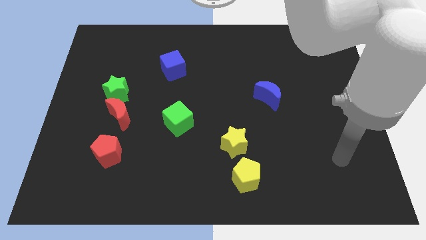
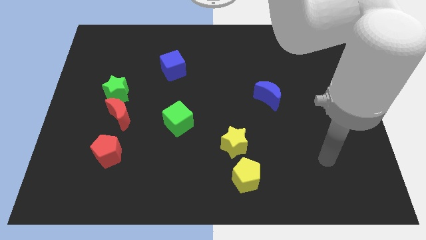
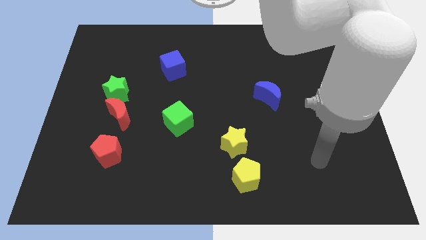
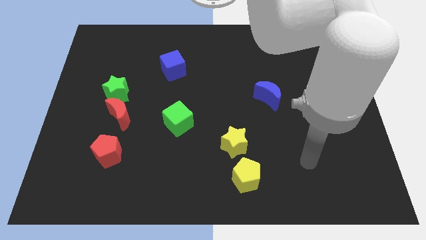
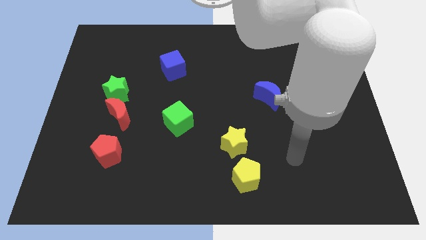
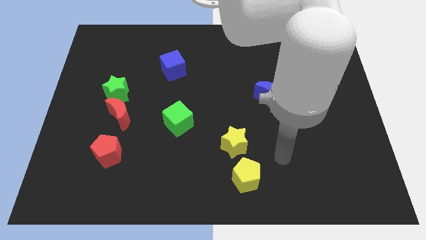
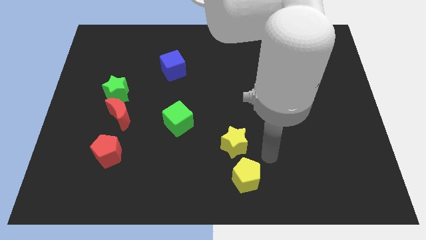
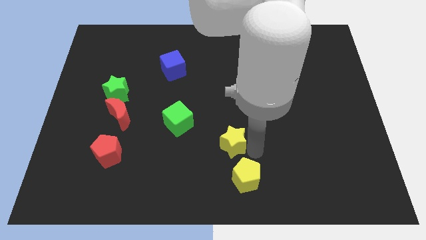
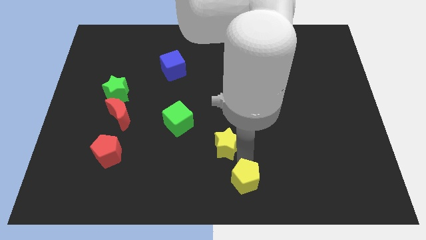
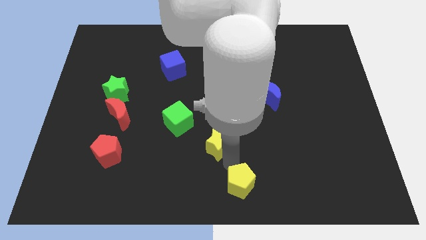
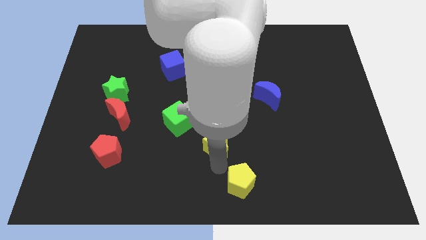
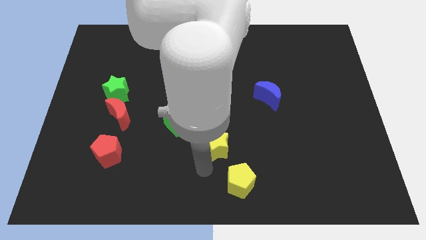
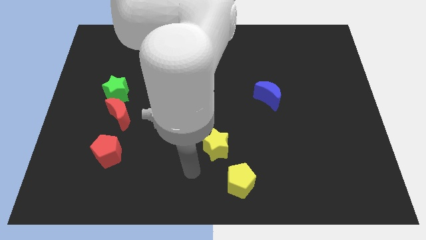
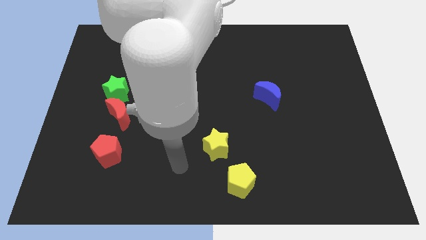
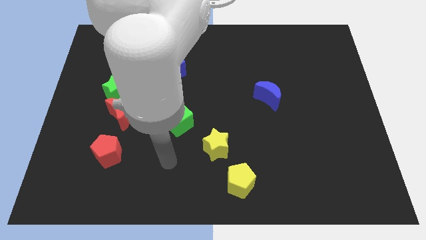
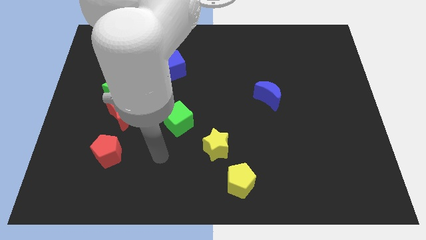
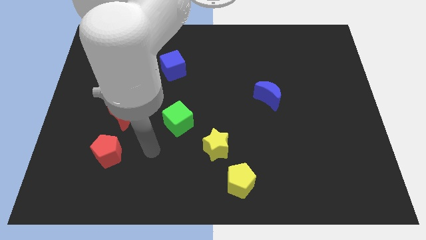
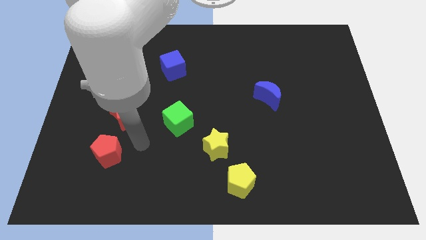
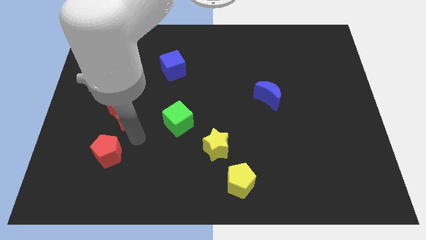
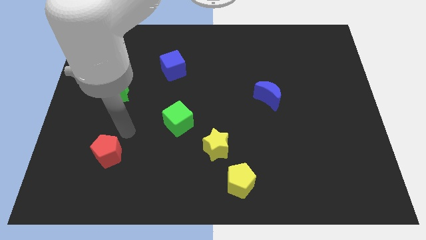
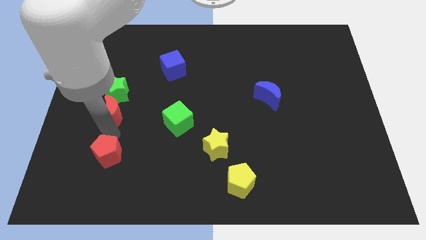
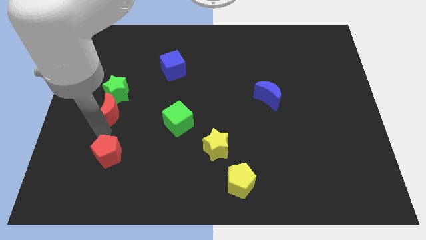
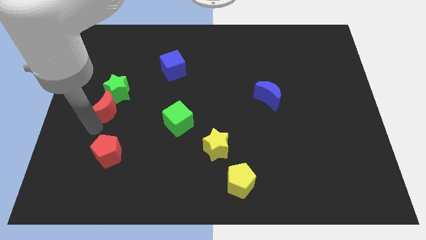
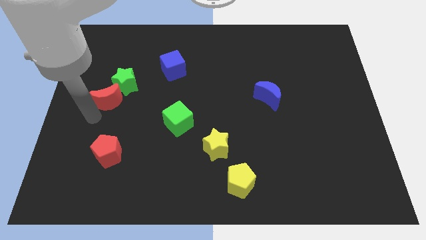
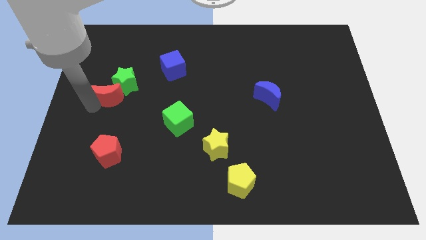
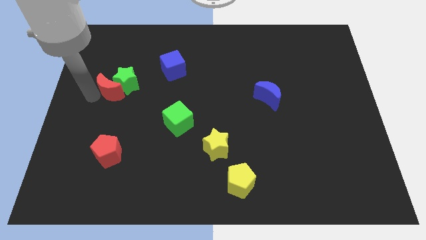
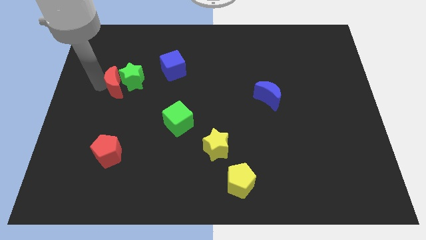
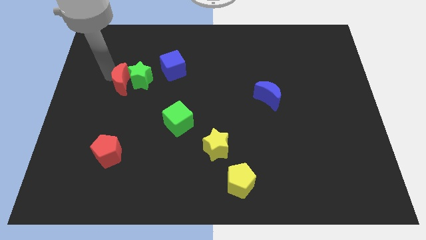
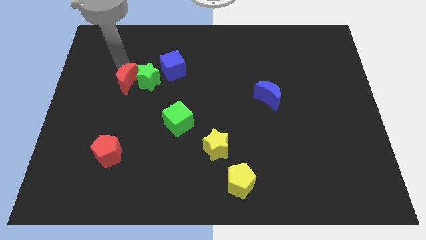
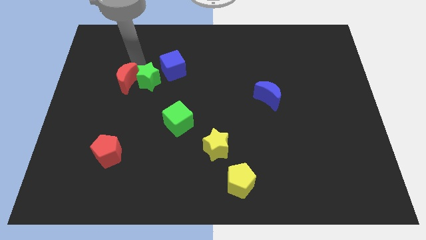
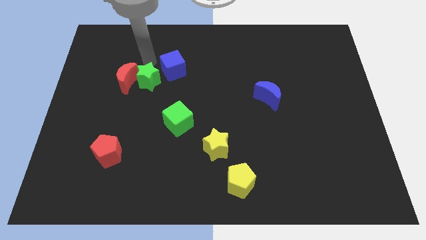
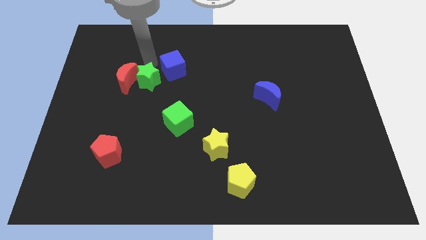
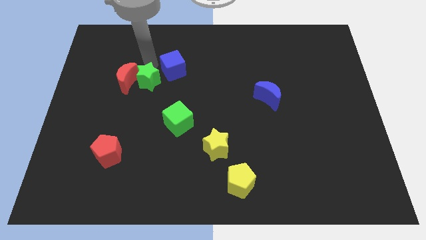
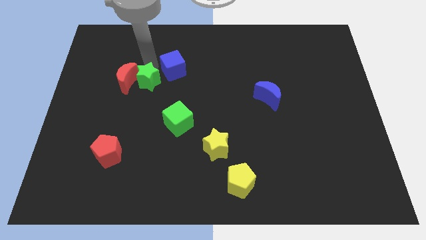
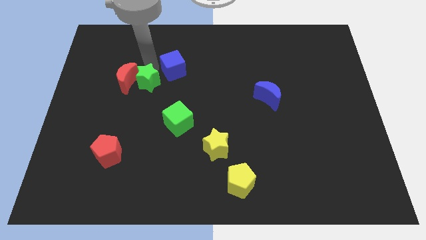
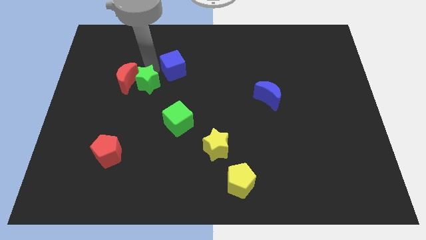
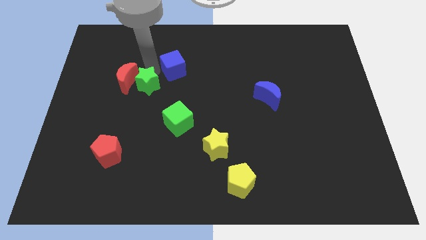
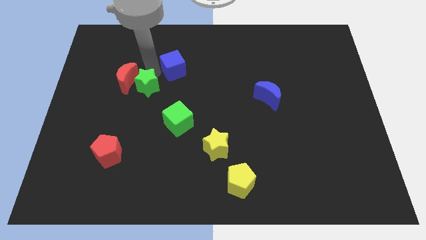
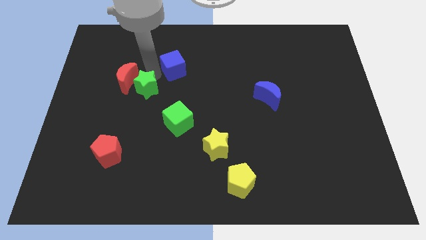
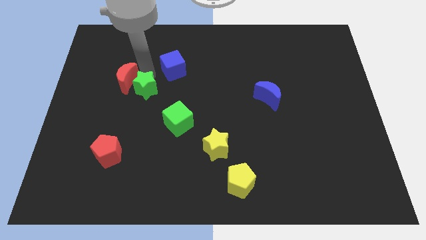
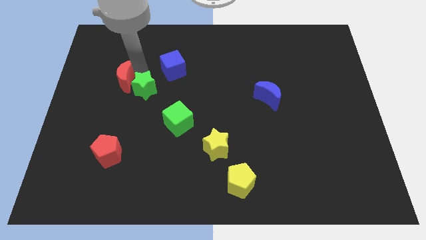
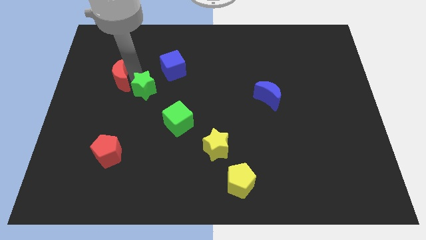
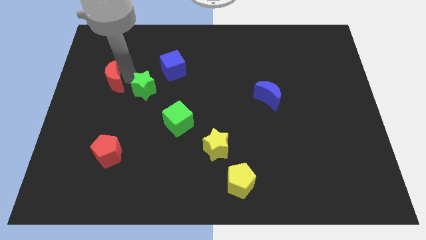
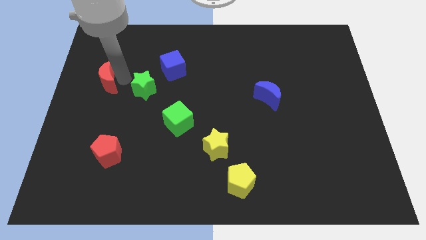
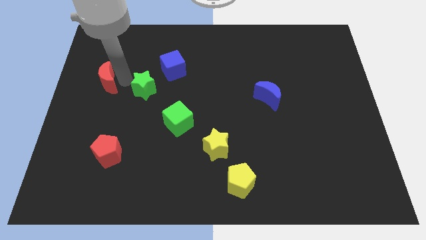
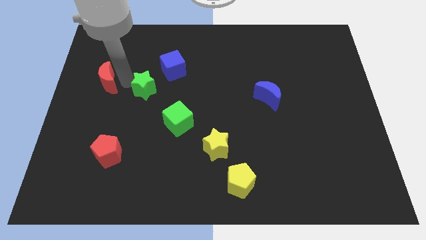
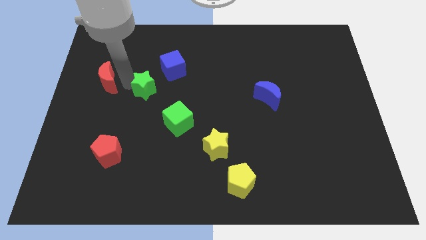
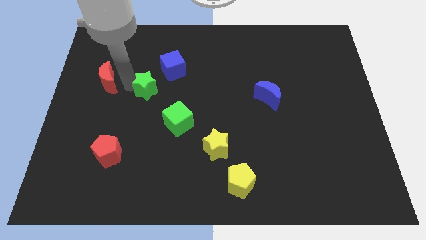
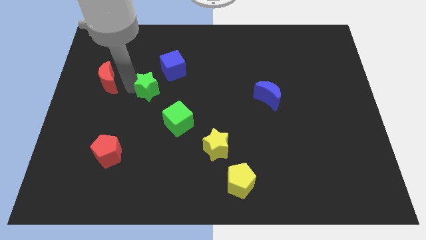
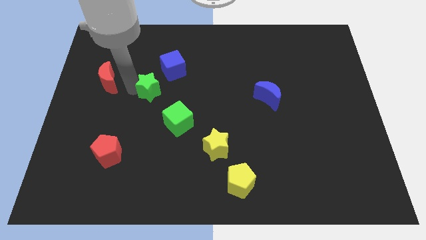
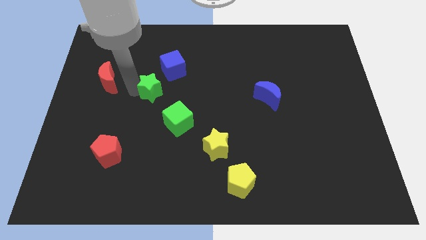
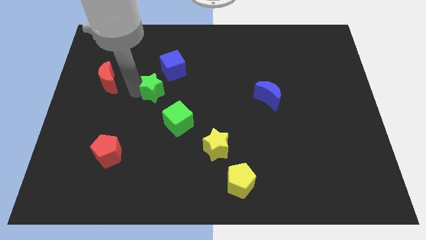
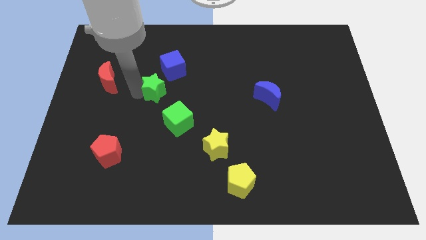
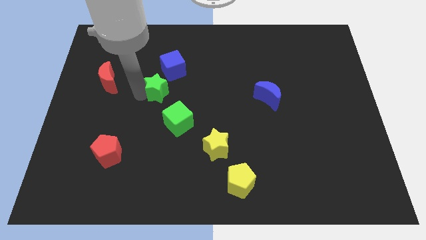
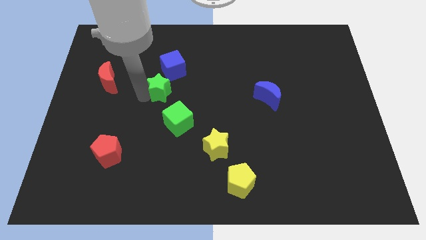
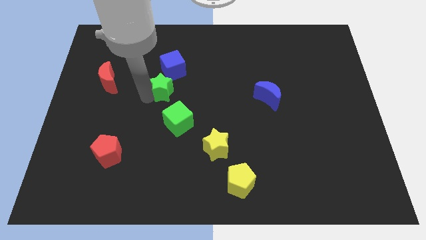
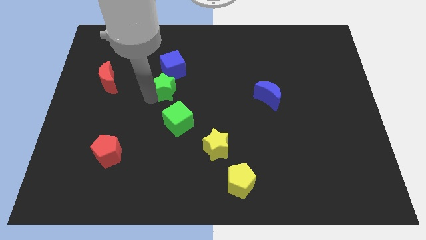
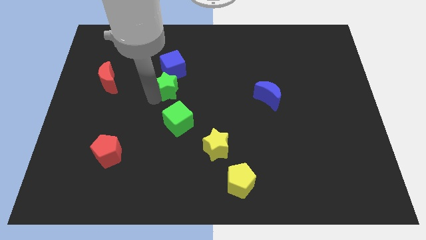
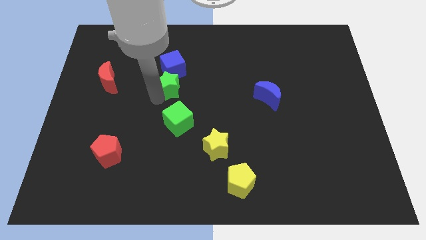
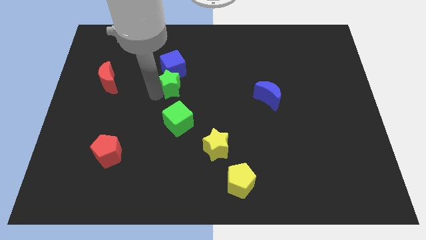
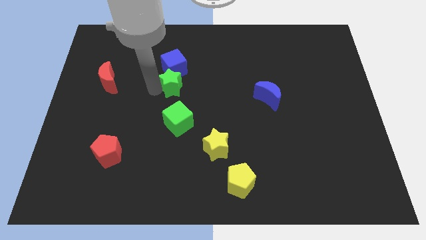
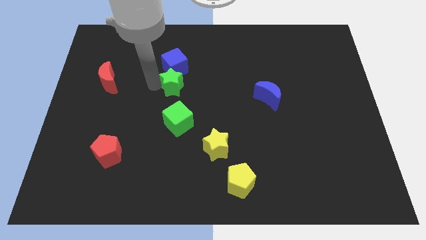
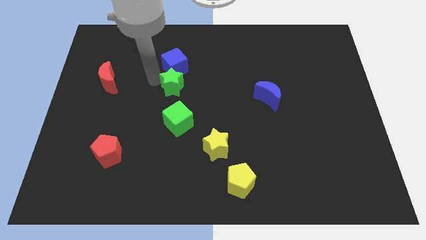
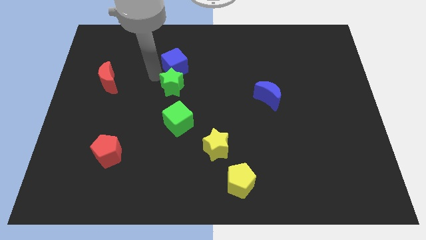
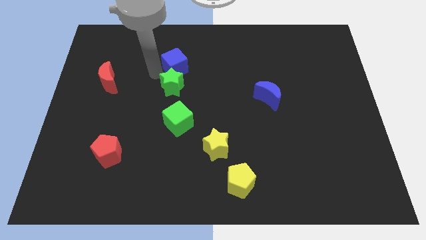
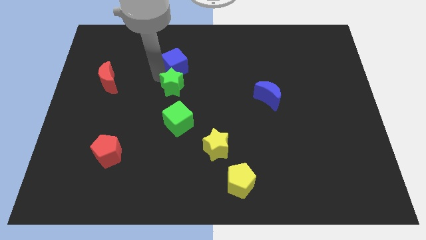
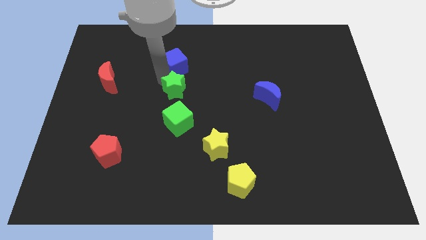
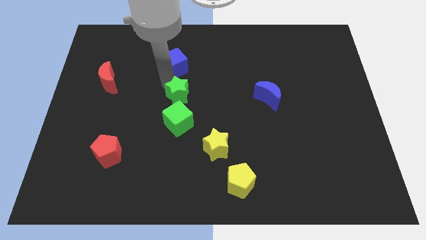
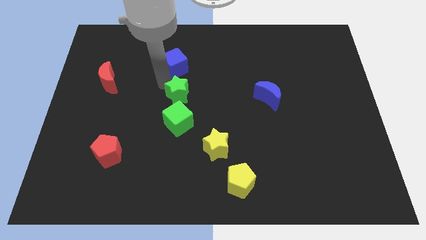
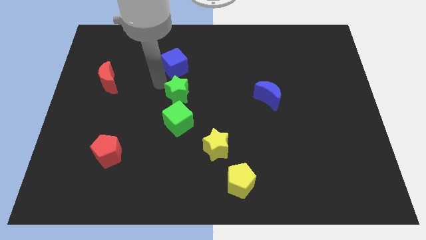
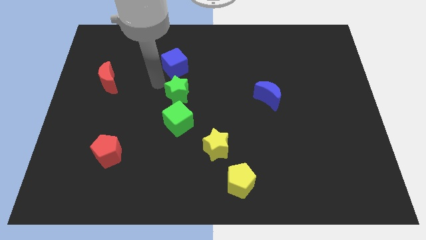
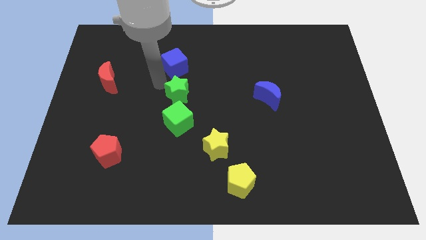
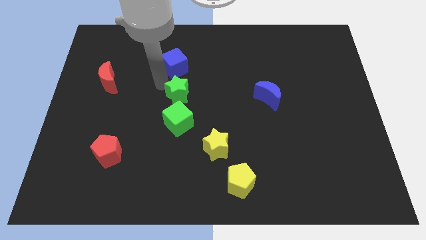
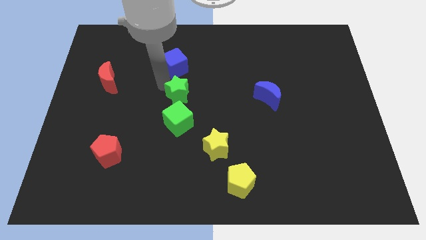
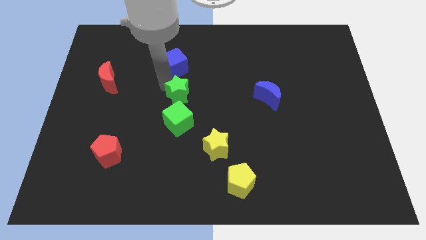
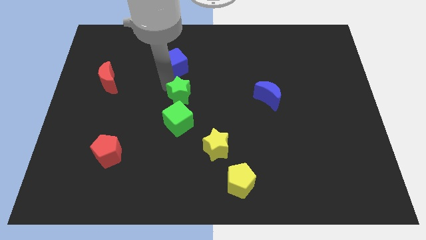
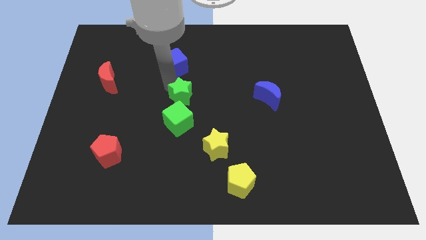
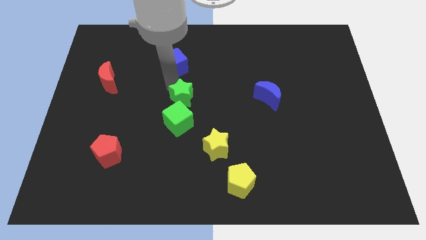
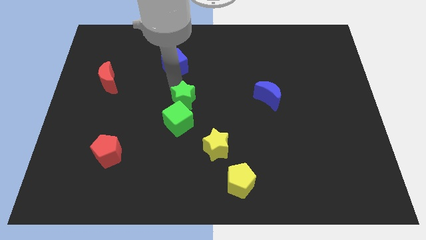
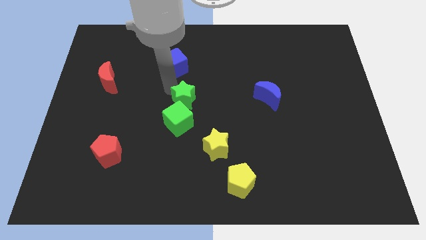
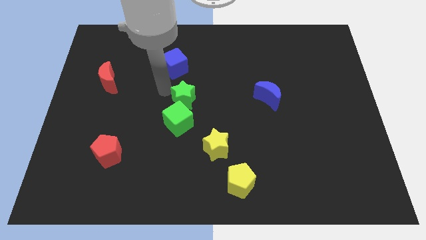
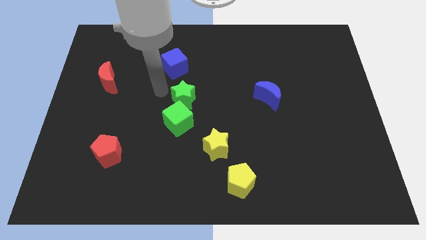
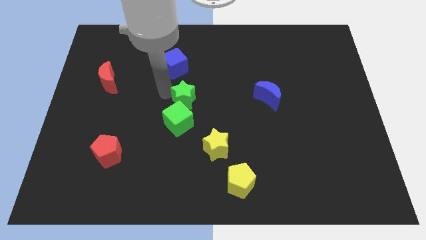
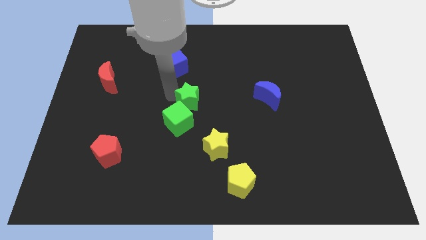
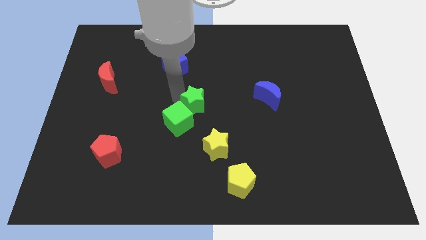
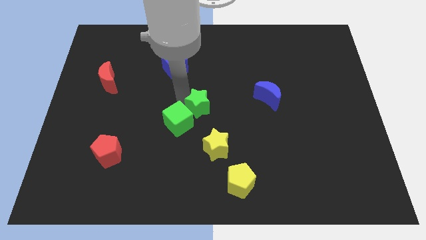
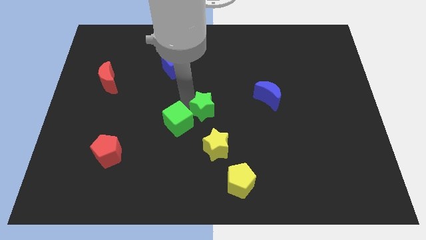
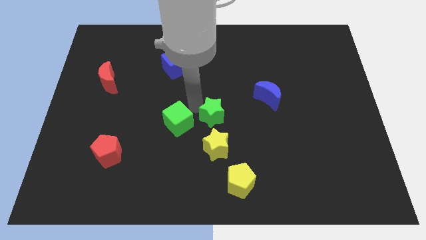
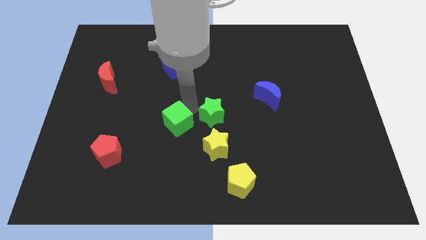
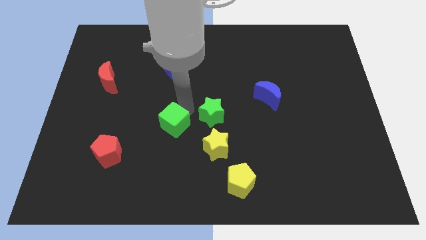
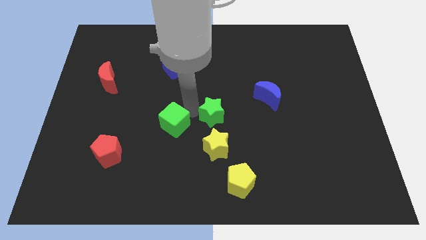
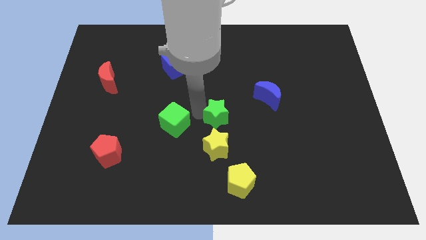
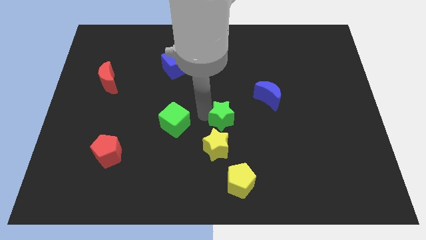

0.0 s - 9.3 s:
push the green star to the top right side of the yellow star
